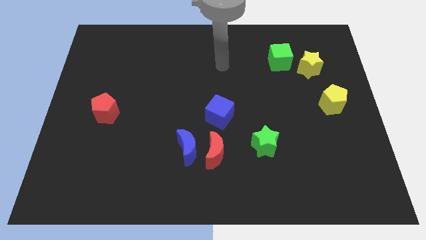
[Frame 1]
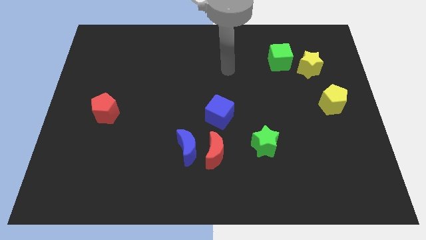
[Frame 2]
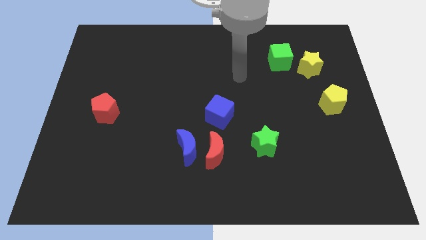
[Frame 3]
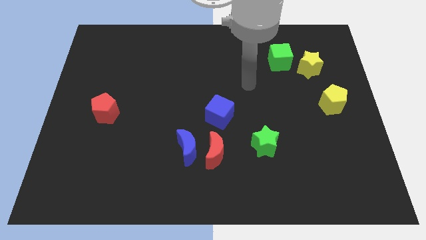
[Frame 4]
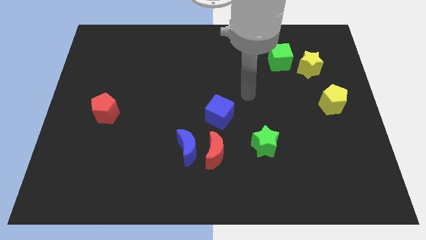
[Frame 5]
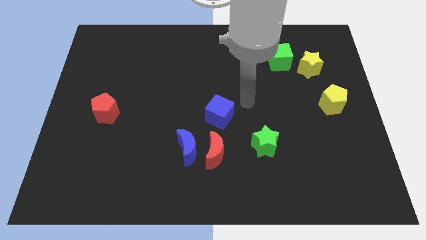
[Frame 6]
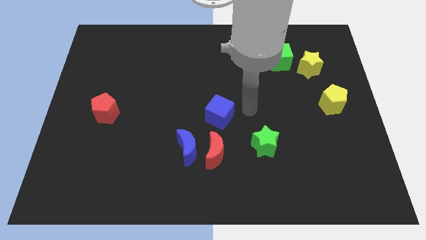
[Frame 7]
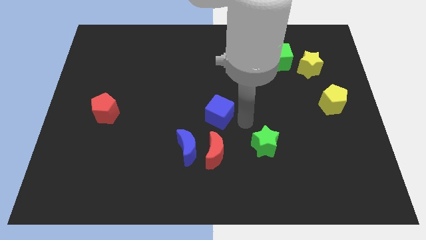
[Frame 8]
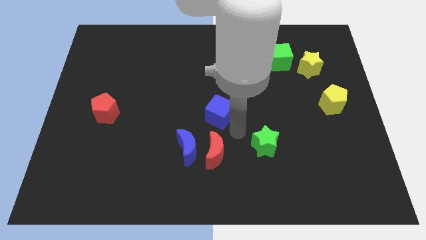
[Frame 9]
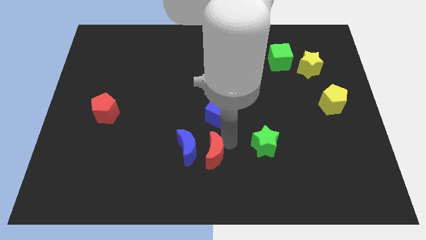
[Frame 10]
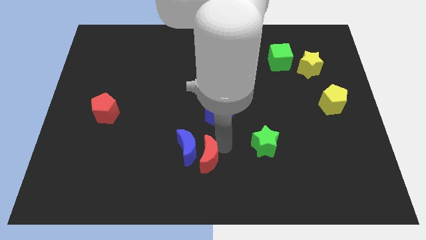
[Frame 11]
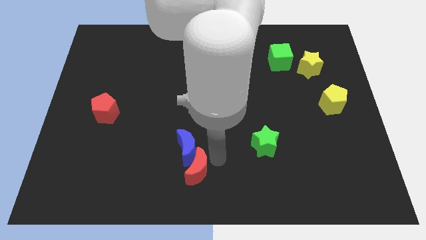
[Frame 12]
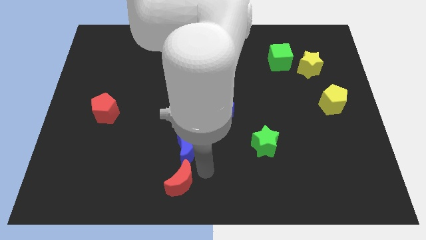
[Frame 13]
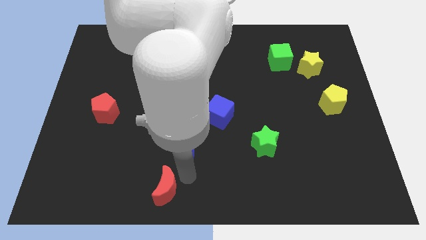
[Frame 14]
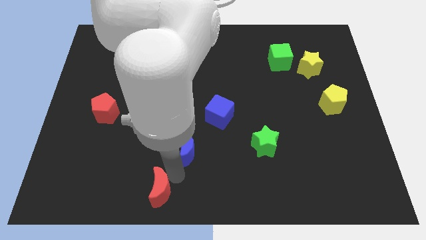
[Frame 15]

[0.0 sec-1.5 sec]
move the blue moon away from the red moon

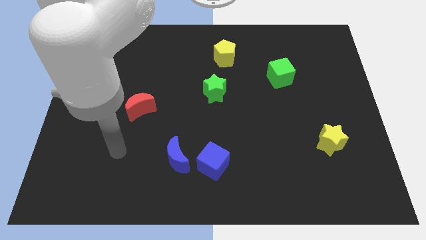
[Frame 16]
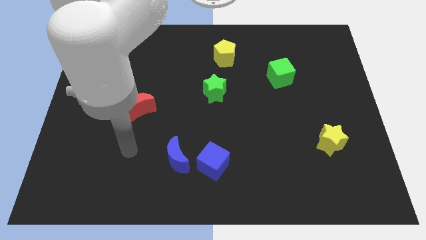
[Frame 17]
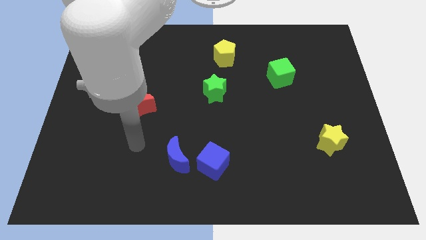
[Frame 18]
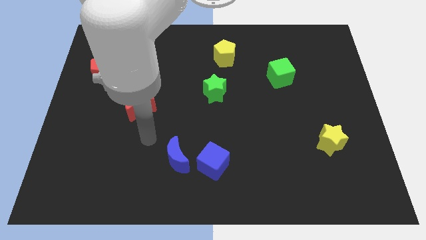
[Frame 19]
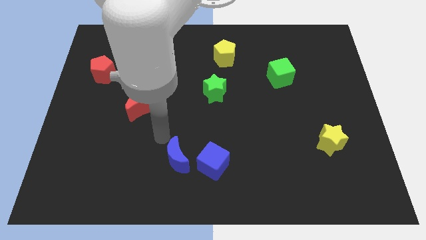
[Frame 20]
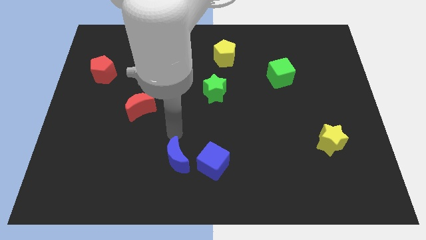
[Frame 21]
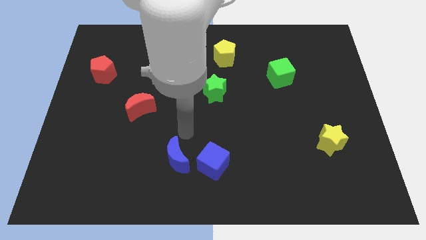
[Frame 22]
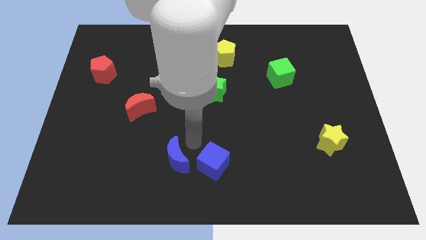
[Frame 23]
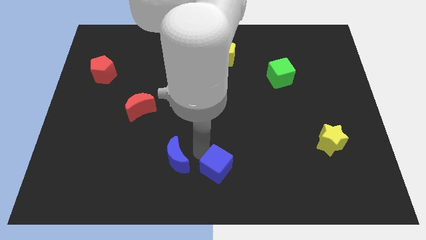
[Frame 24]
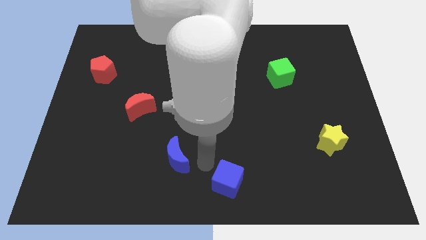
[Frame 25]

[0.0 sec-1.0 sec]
move the blue moon away from the blue cube

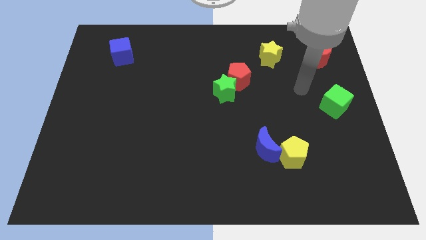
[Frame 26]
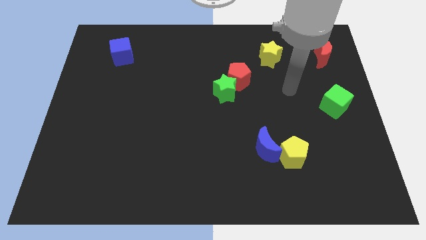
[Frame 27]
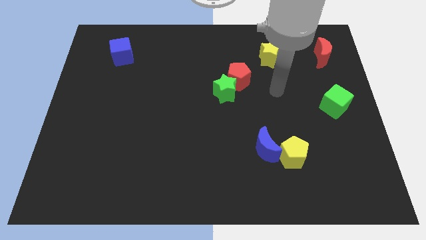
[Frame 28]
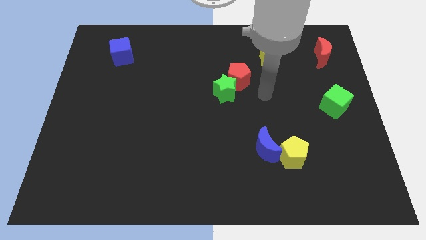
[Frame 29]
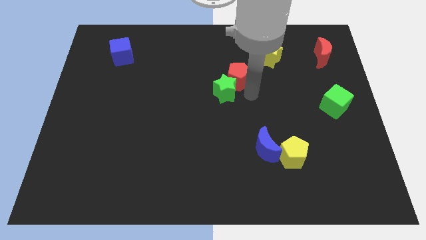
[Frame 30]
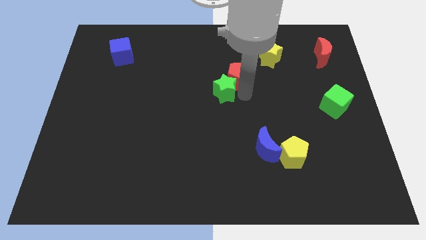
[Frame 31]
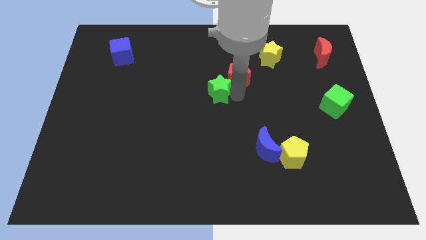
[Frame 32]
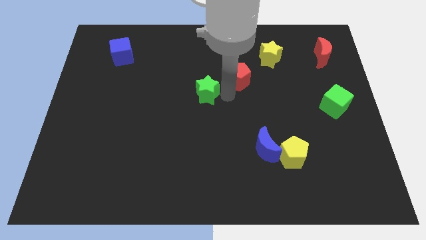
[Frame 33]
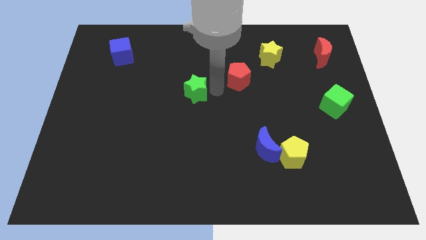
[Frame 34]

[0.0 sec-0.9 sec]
pull the red pentagon apart from the green star

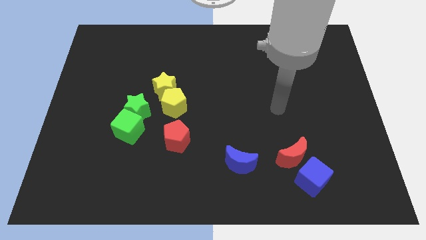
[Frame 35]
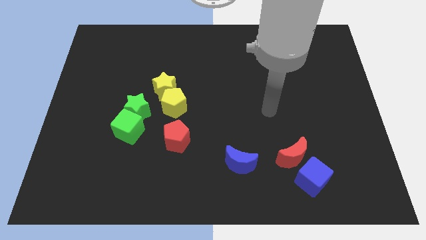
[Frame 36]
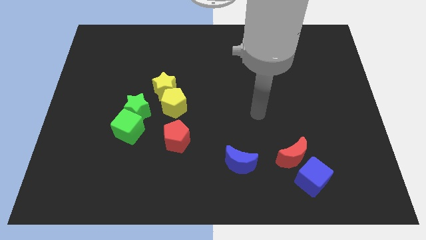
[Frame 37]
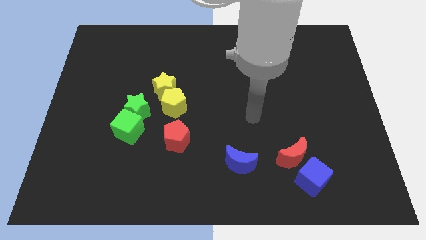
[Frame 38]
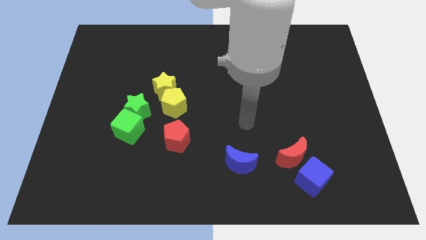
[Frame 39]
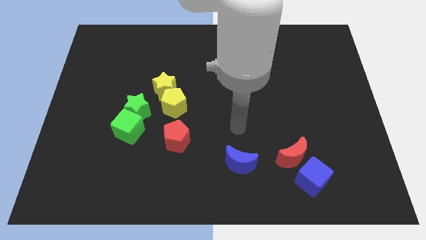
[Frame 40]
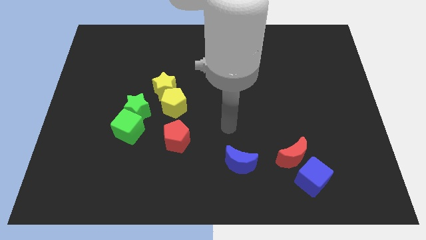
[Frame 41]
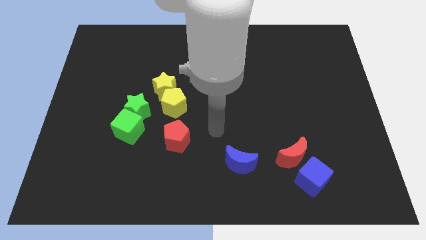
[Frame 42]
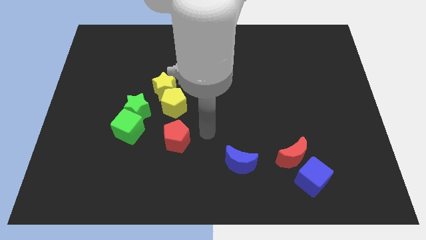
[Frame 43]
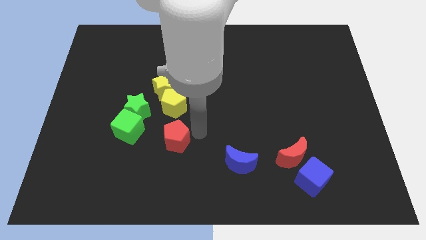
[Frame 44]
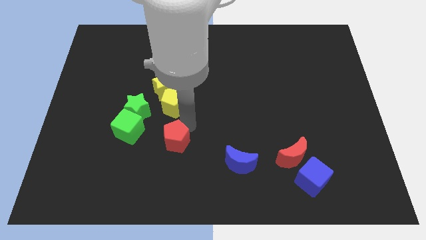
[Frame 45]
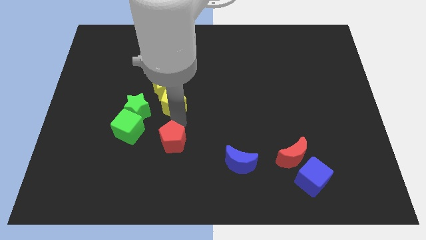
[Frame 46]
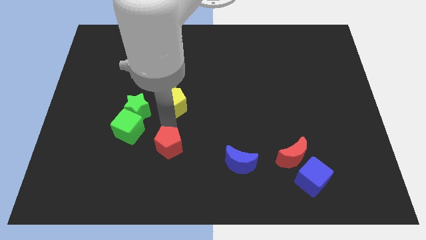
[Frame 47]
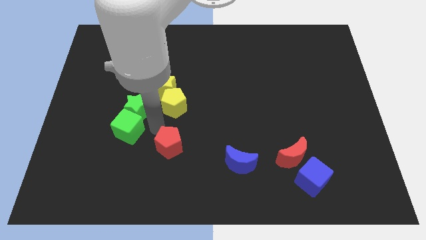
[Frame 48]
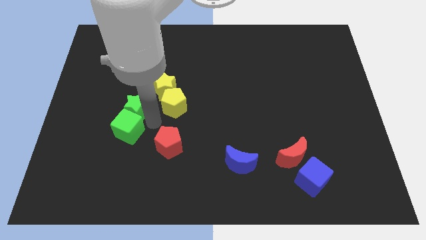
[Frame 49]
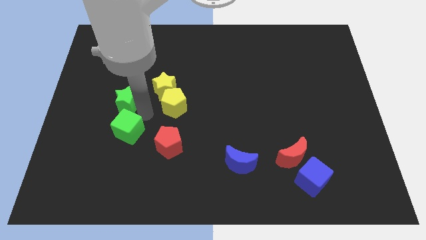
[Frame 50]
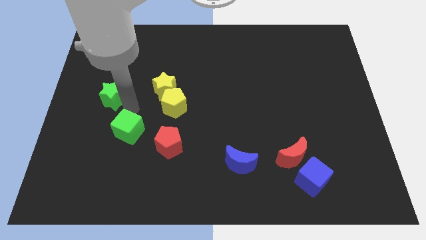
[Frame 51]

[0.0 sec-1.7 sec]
pull the green cube apart from the green star

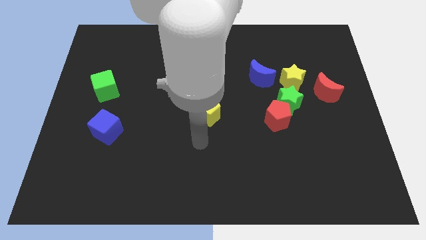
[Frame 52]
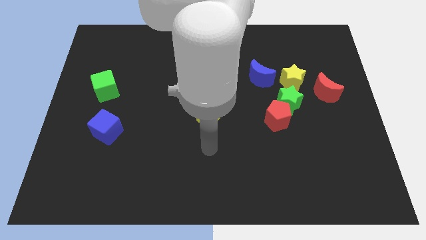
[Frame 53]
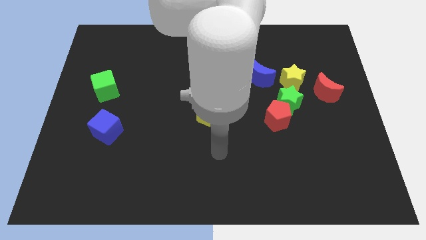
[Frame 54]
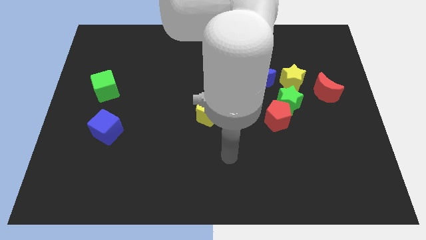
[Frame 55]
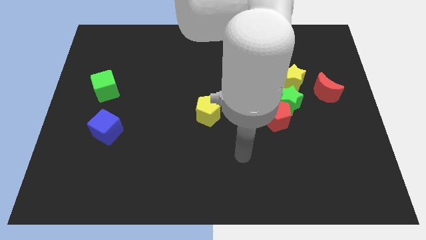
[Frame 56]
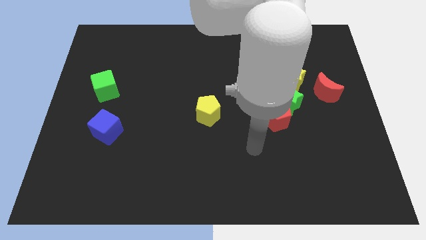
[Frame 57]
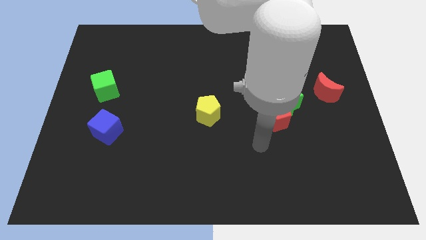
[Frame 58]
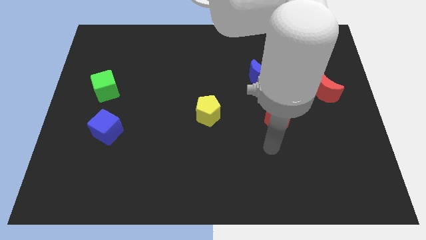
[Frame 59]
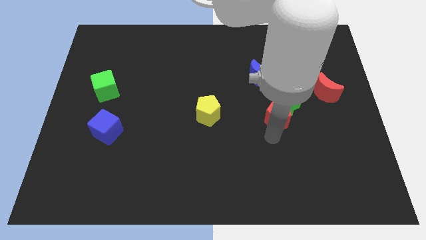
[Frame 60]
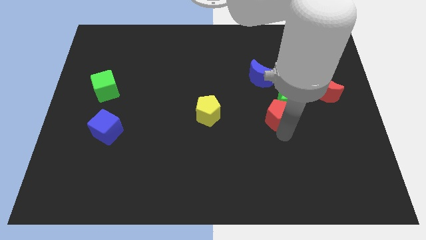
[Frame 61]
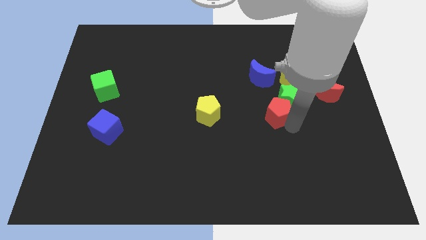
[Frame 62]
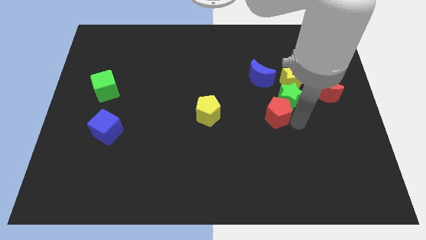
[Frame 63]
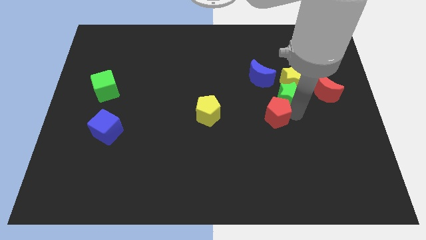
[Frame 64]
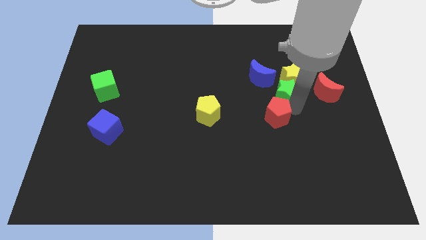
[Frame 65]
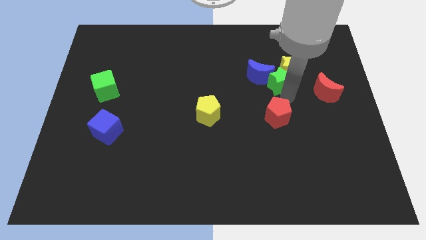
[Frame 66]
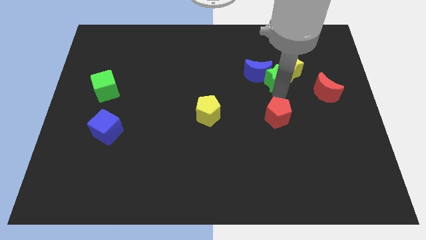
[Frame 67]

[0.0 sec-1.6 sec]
move the red pentagon away from the green star

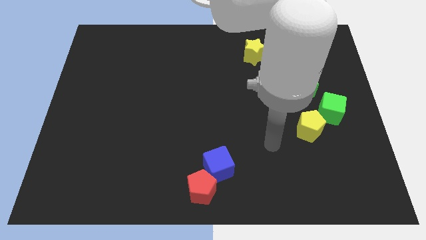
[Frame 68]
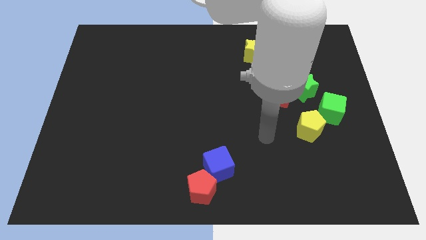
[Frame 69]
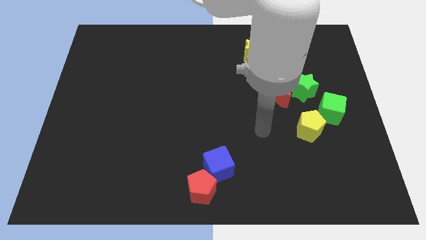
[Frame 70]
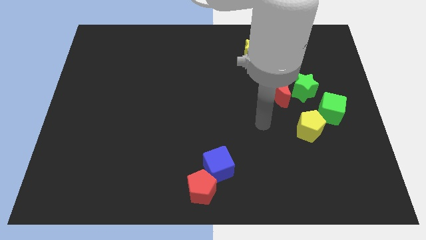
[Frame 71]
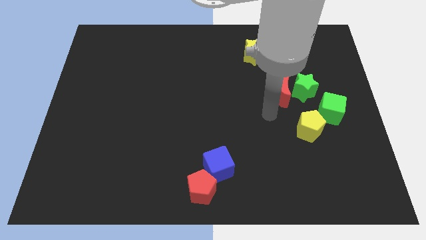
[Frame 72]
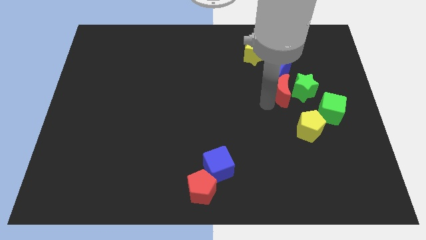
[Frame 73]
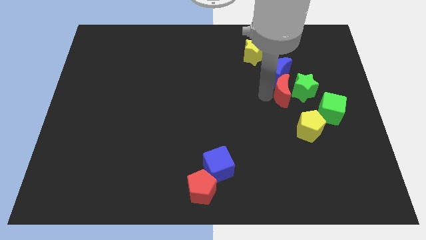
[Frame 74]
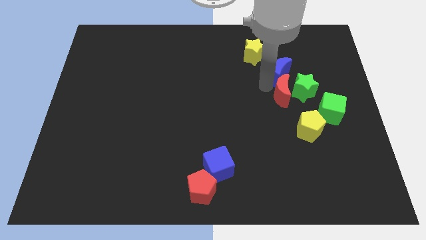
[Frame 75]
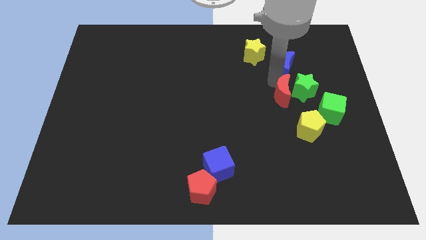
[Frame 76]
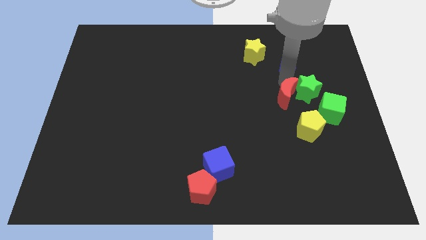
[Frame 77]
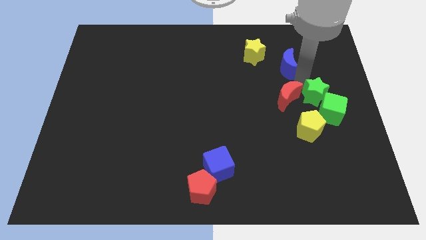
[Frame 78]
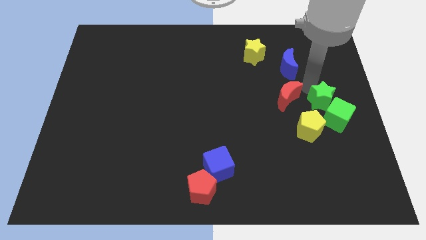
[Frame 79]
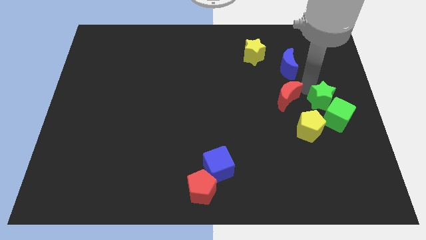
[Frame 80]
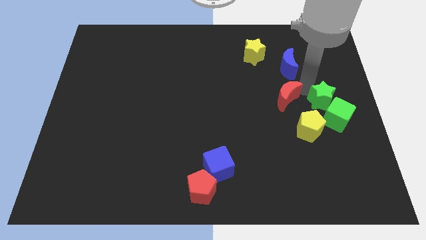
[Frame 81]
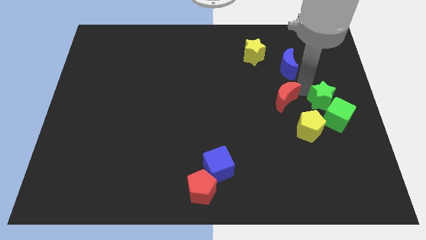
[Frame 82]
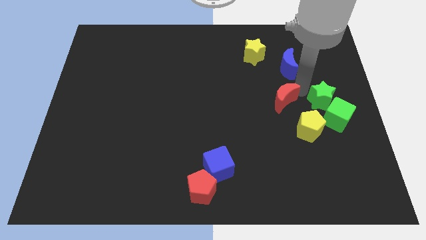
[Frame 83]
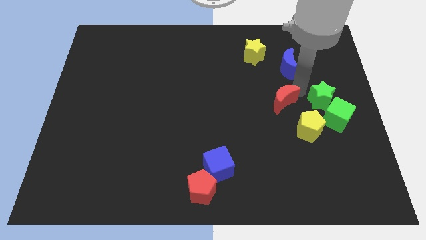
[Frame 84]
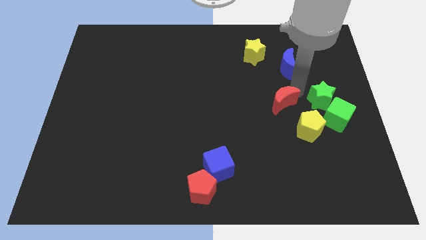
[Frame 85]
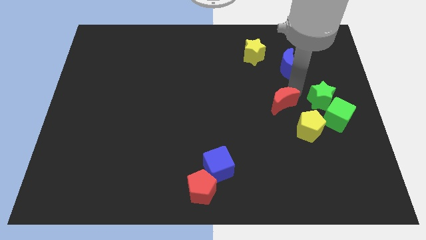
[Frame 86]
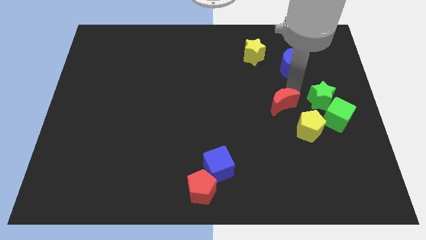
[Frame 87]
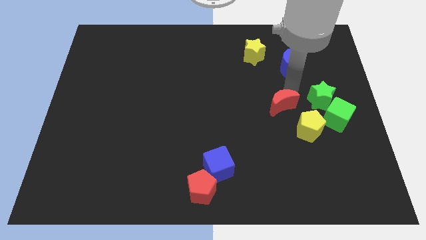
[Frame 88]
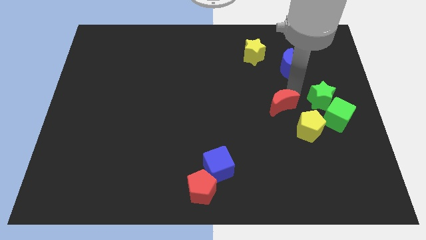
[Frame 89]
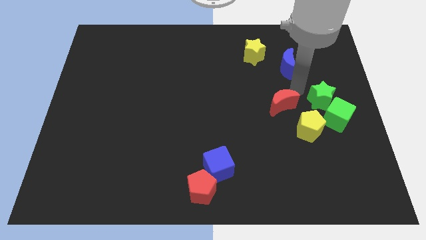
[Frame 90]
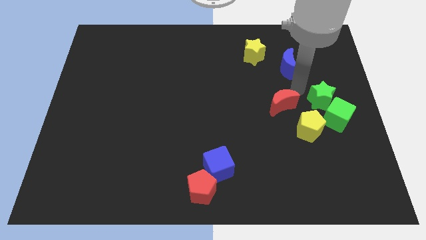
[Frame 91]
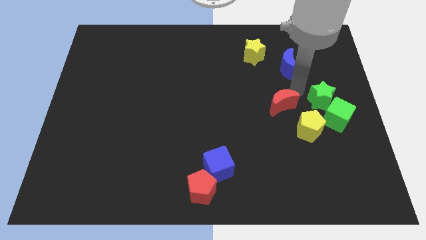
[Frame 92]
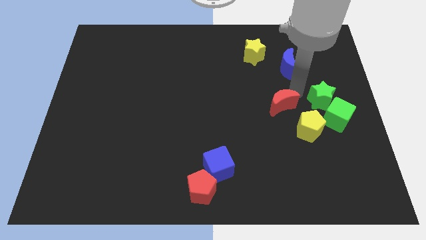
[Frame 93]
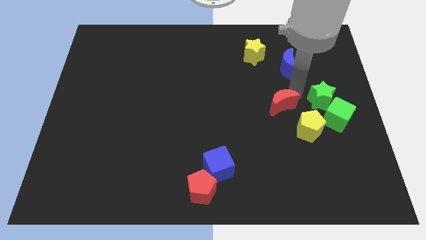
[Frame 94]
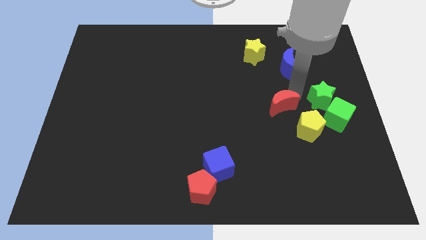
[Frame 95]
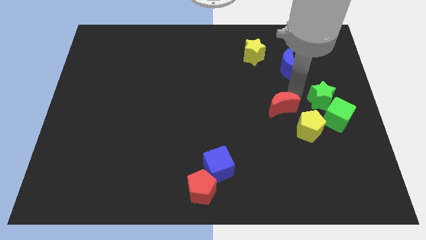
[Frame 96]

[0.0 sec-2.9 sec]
separate the red moon from the green star and blue moon
